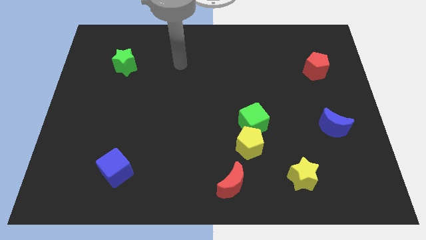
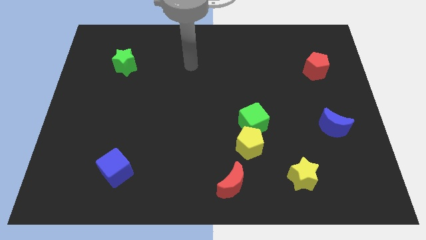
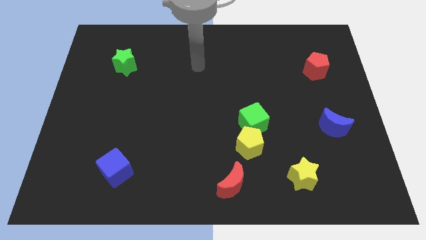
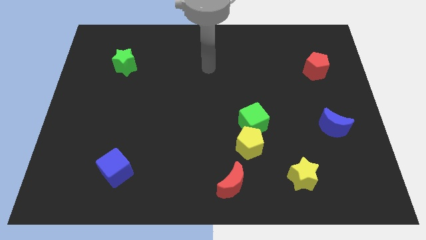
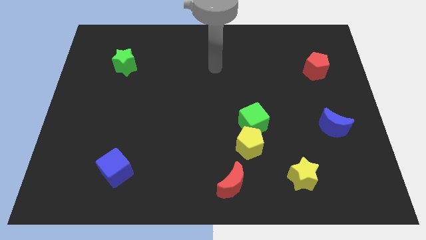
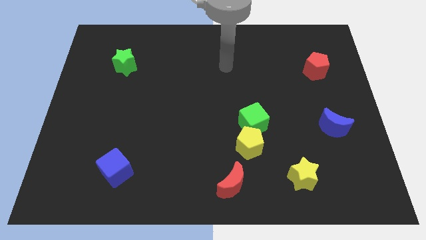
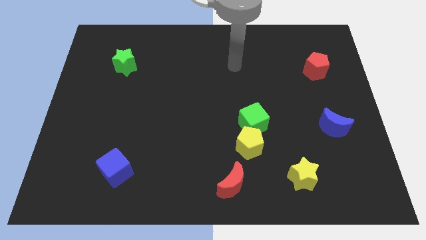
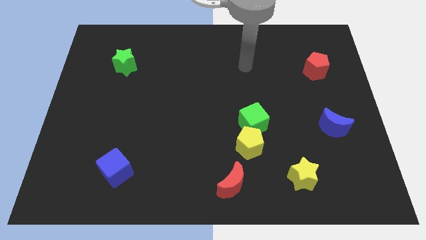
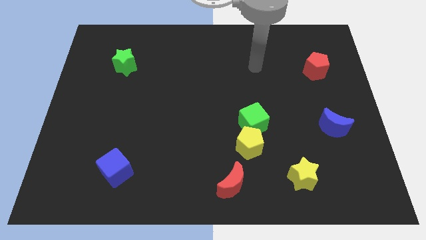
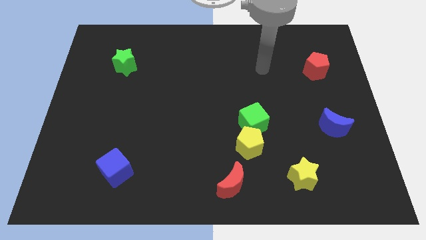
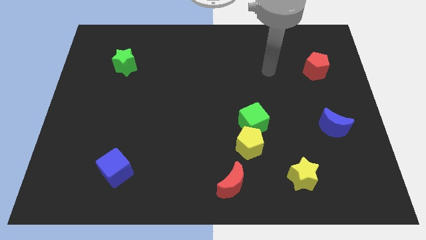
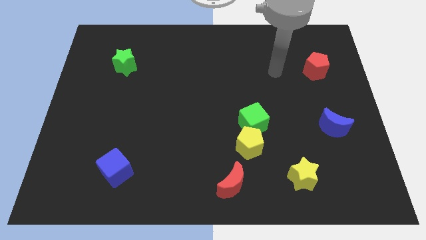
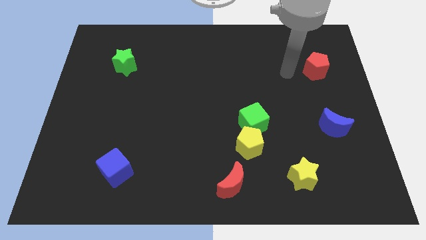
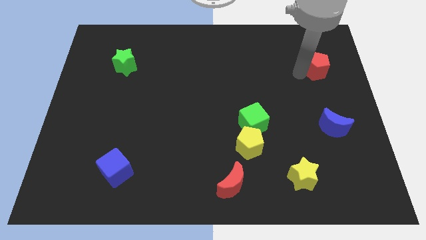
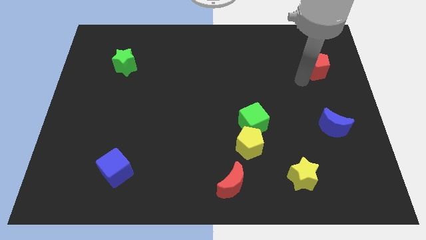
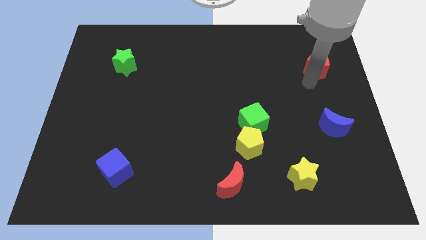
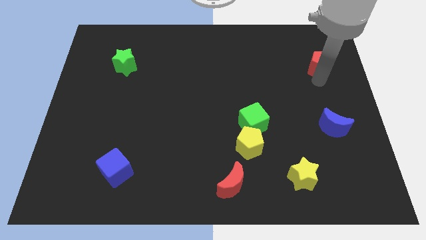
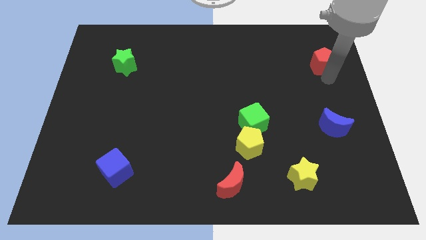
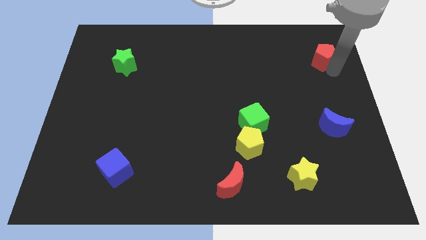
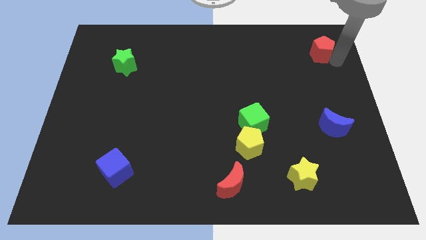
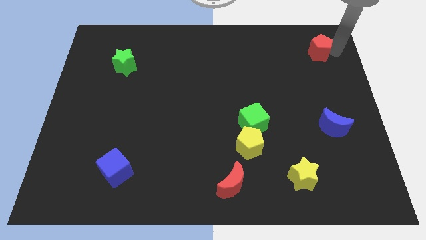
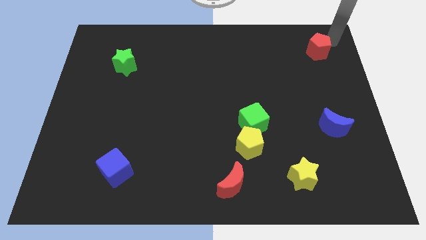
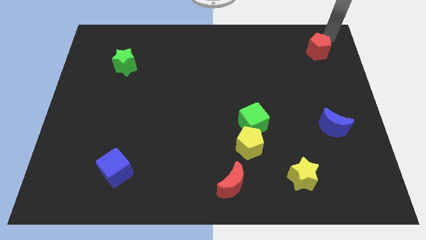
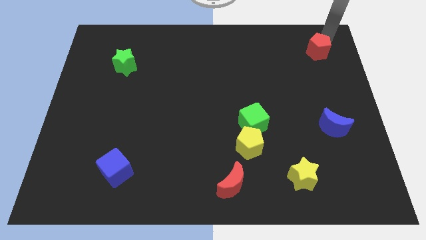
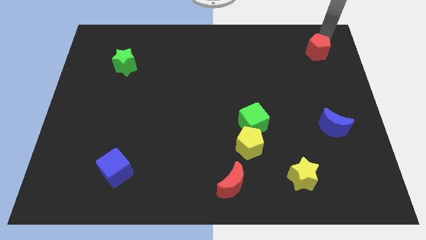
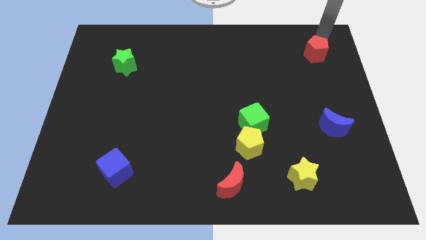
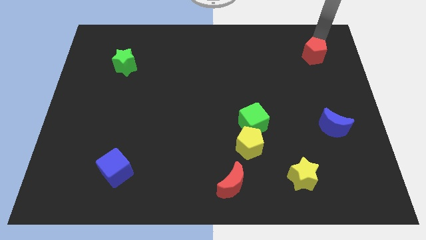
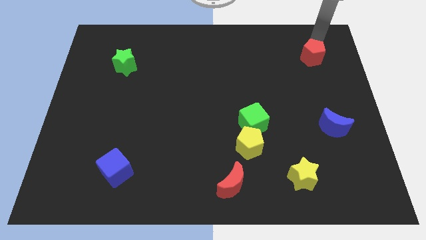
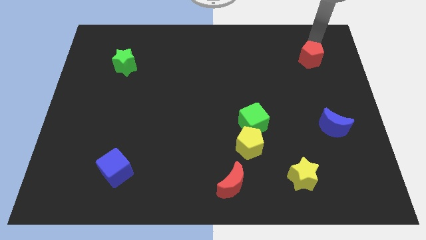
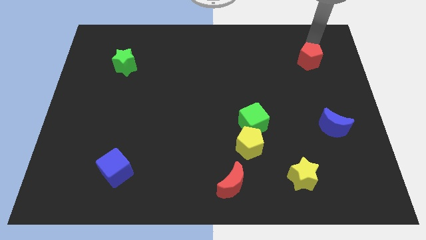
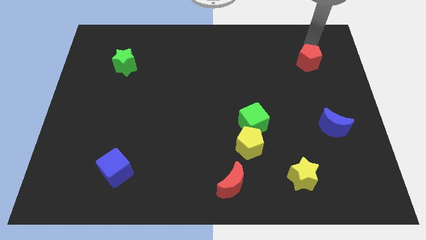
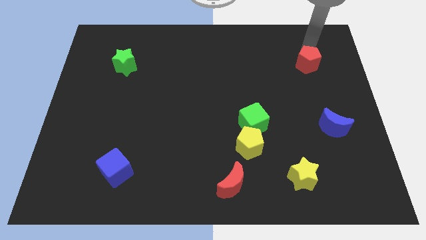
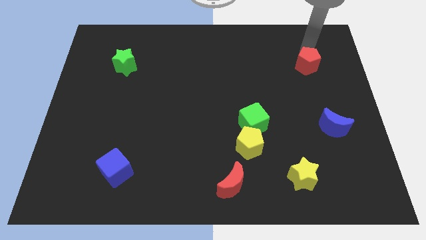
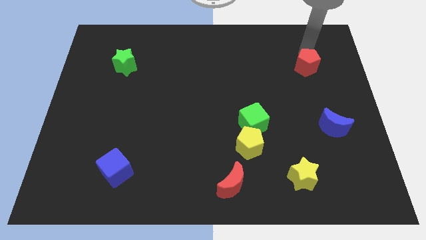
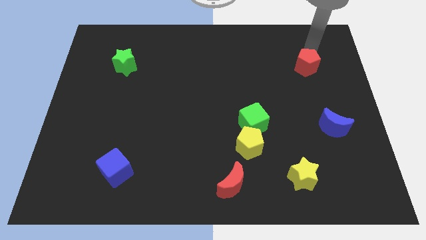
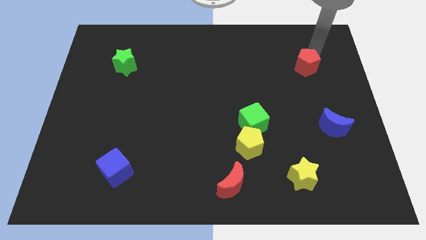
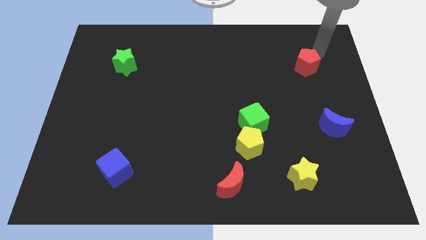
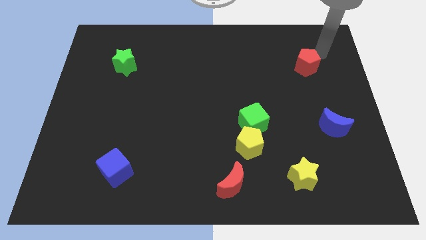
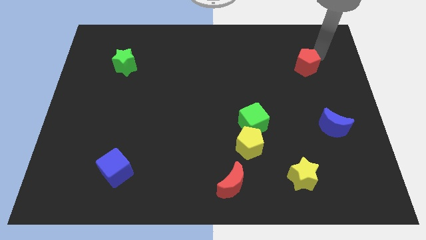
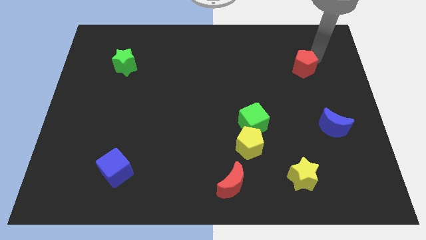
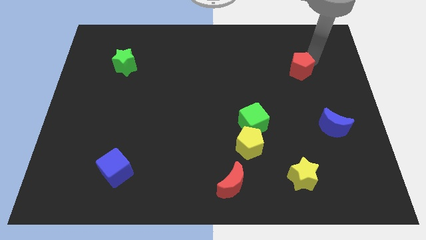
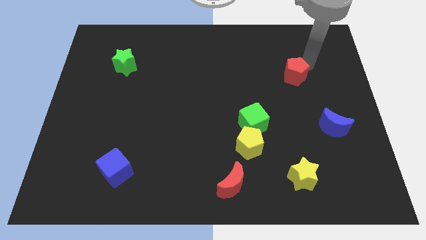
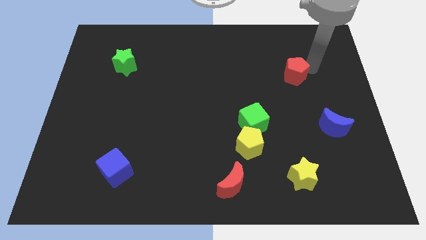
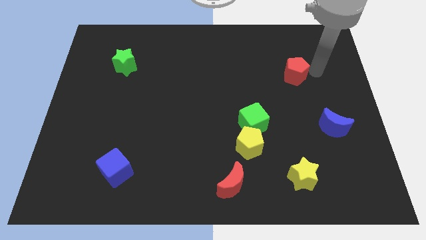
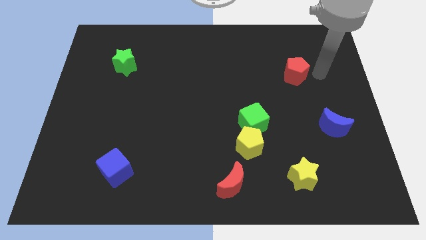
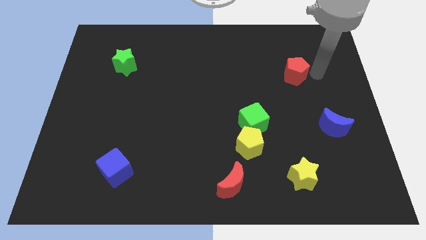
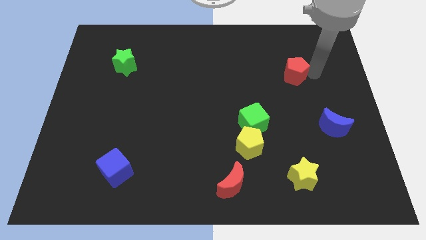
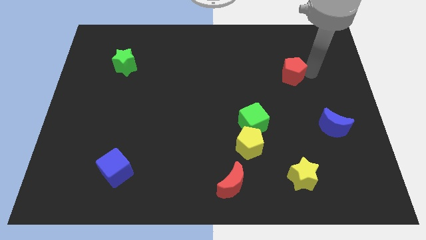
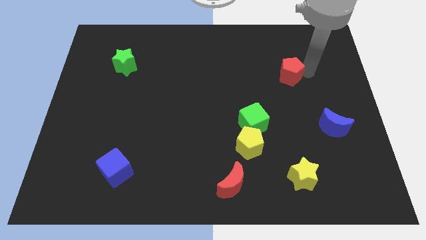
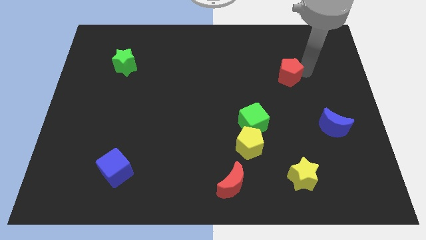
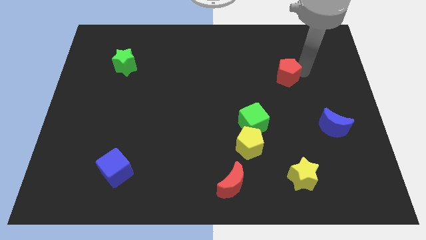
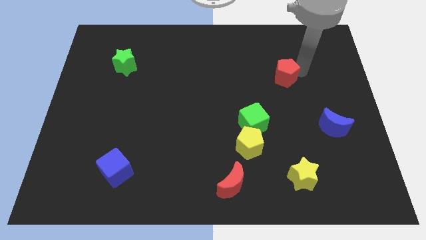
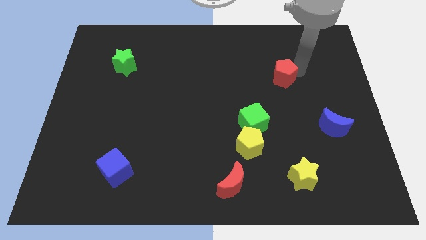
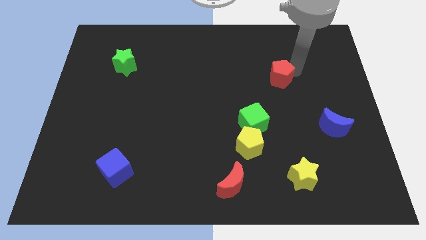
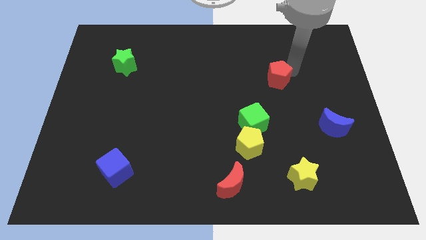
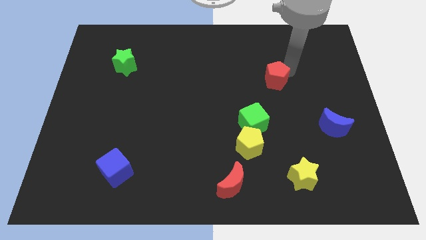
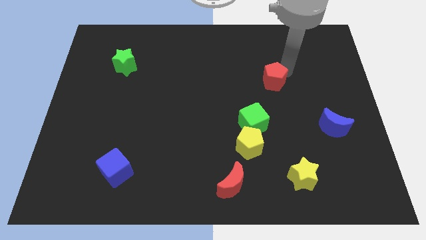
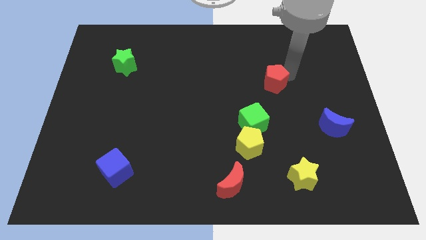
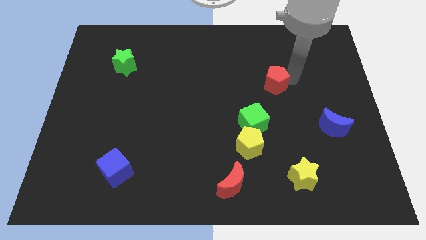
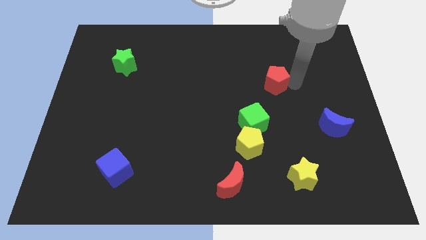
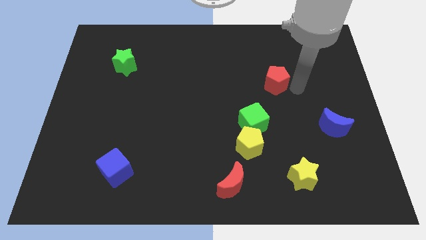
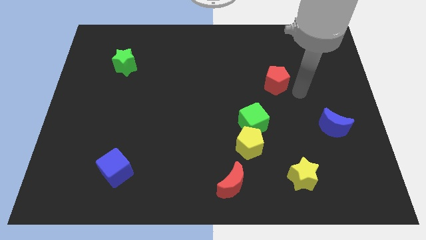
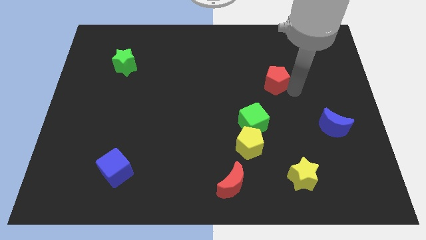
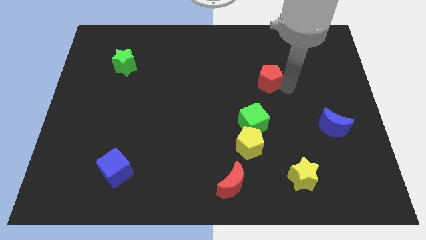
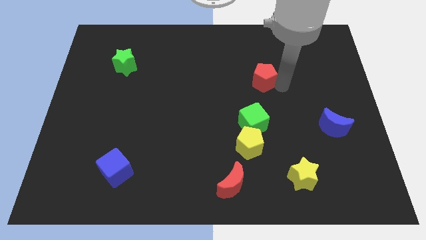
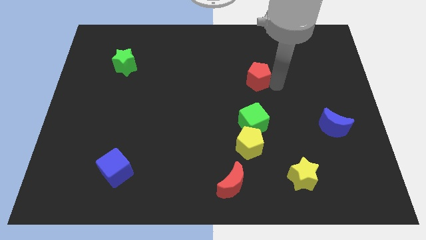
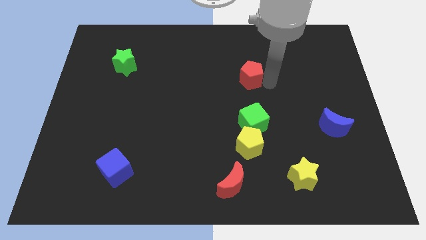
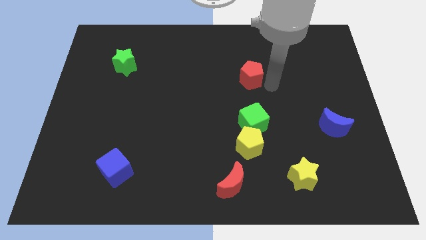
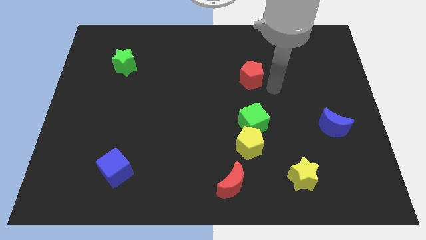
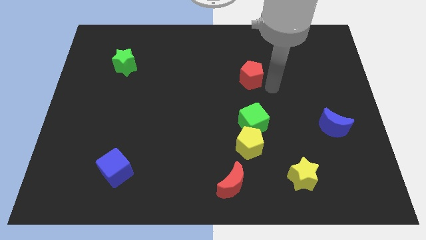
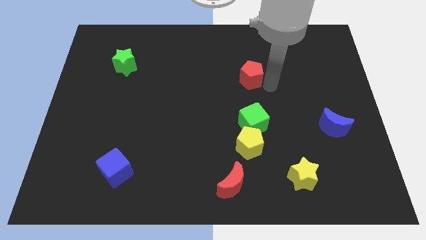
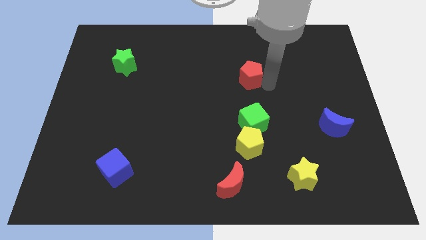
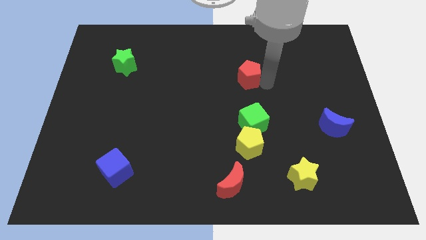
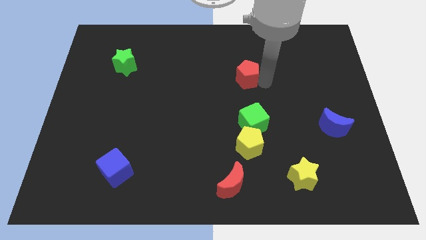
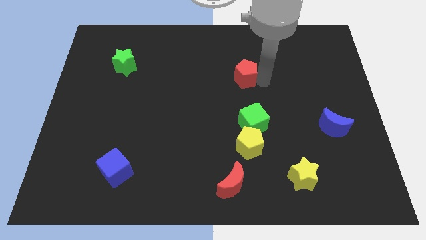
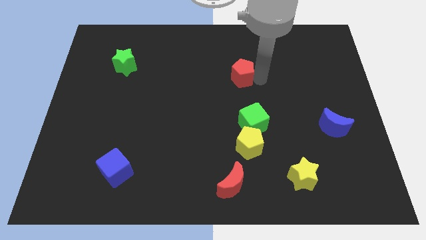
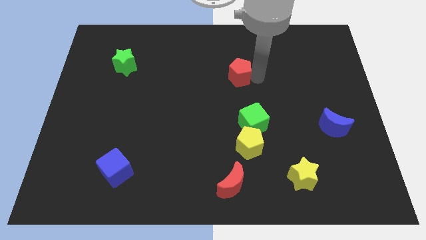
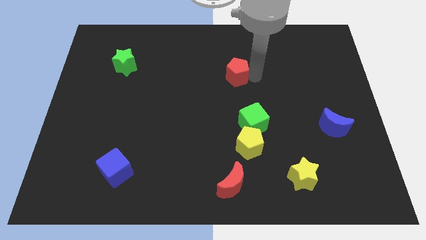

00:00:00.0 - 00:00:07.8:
slide the red pentagon to the left
